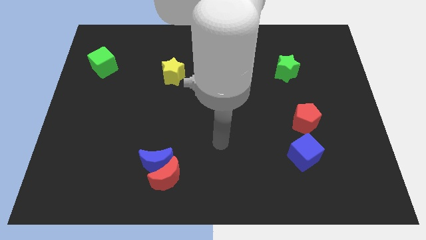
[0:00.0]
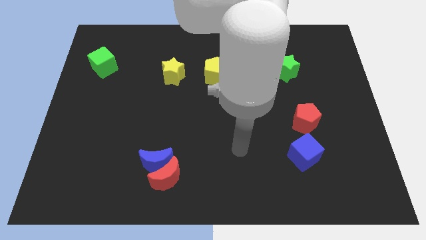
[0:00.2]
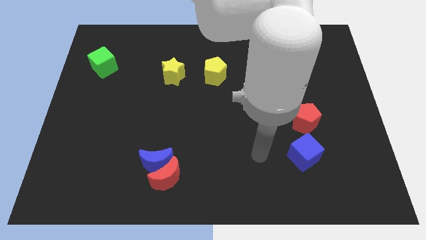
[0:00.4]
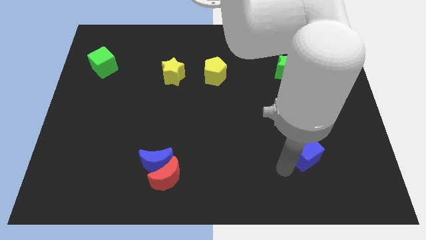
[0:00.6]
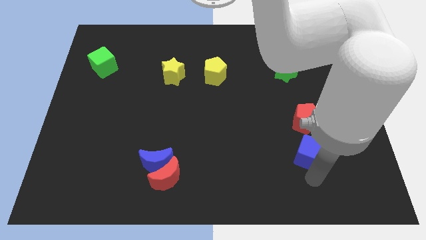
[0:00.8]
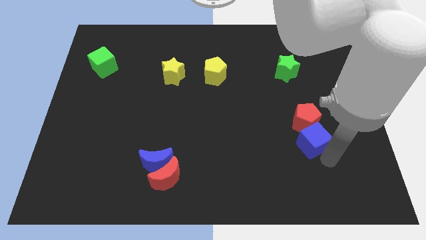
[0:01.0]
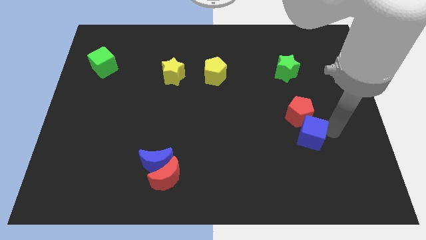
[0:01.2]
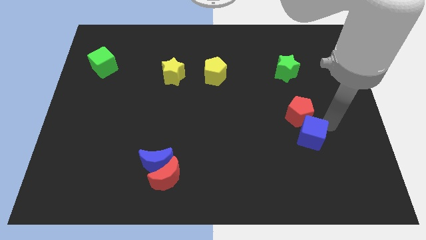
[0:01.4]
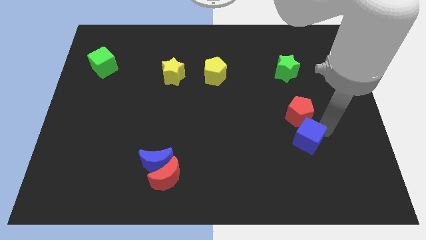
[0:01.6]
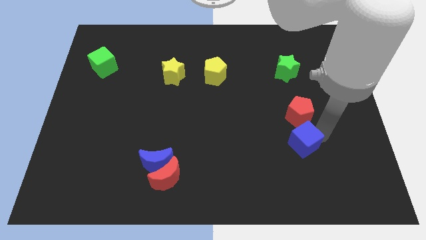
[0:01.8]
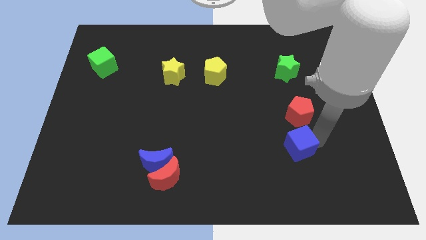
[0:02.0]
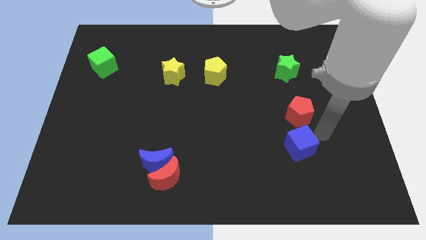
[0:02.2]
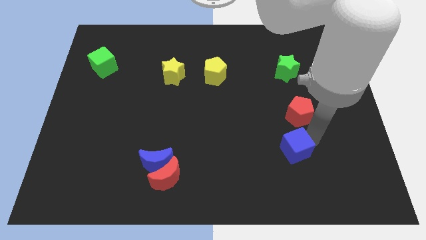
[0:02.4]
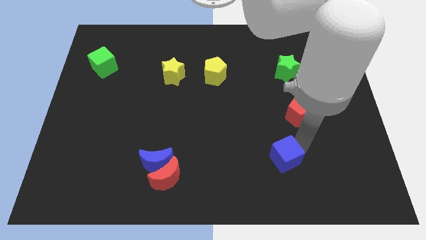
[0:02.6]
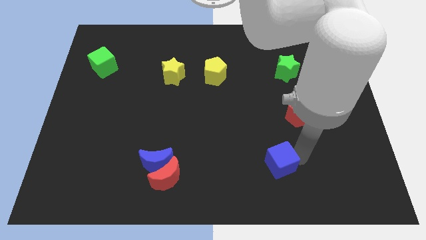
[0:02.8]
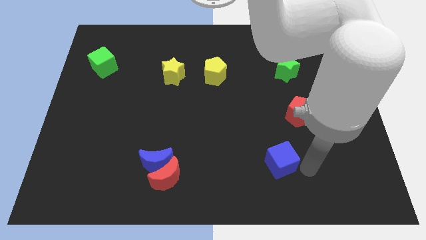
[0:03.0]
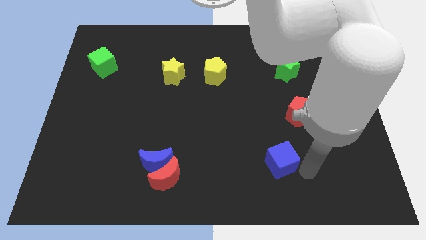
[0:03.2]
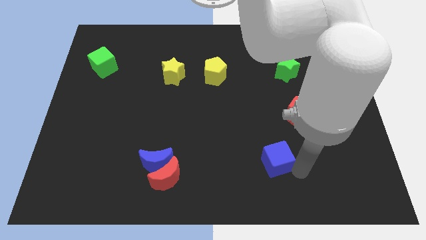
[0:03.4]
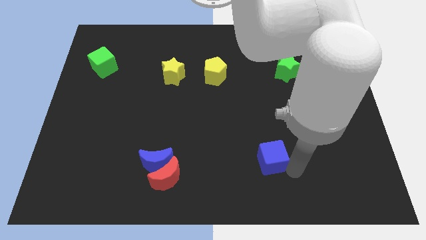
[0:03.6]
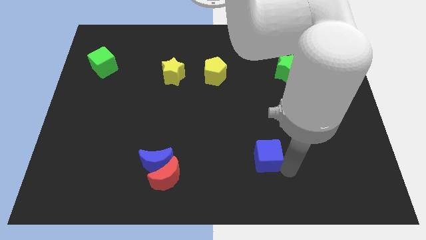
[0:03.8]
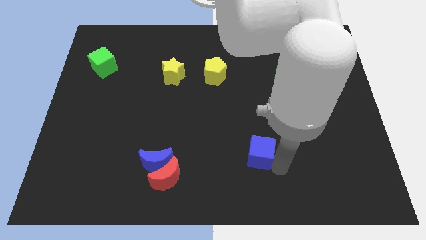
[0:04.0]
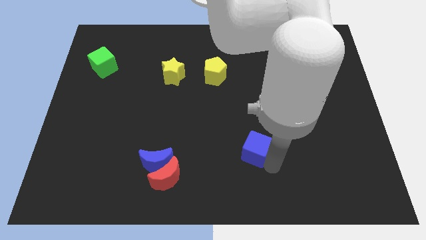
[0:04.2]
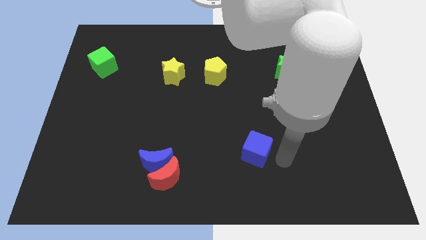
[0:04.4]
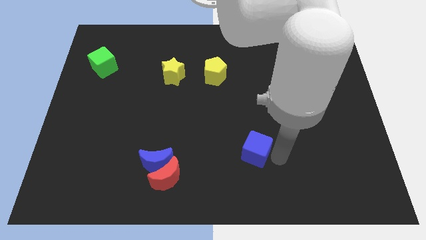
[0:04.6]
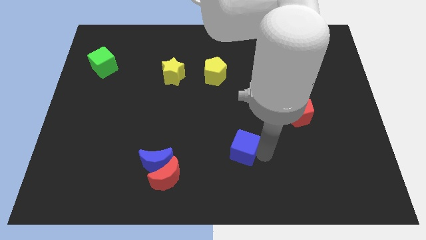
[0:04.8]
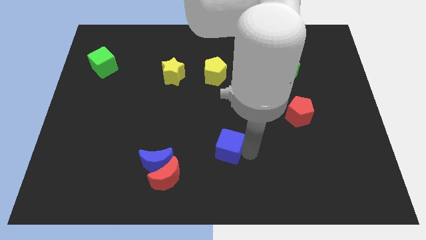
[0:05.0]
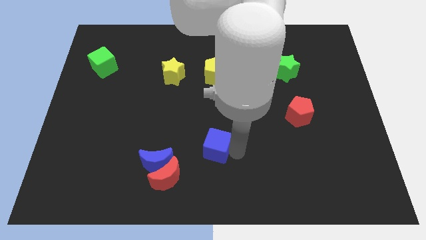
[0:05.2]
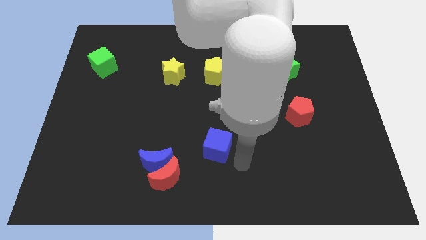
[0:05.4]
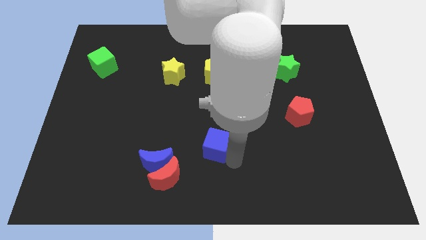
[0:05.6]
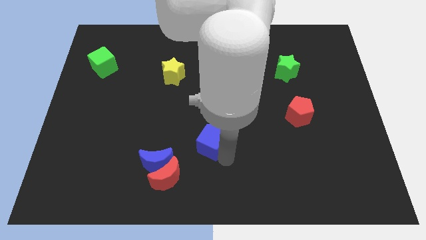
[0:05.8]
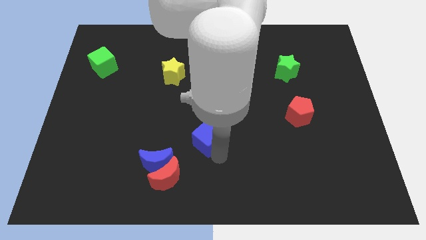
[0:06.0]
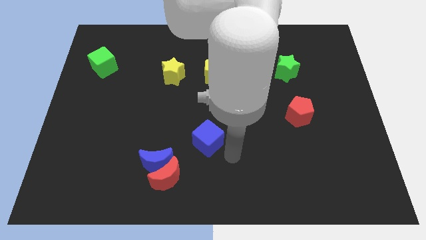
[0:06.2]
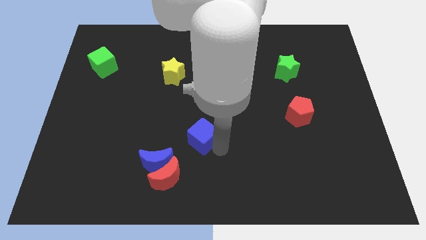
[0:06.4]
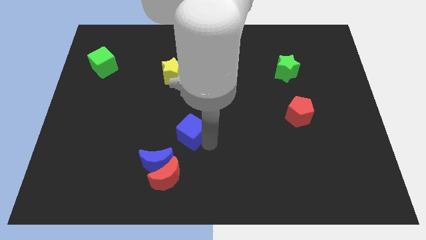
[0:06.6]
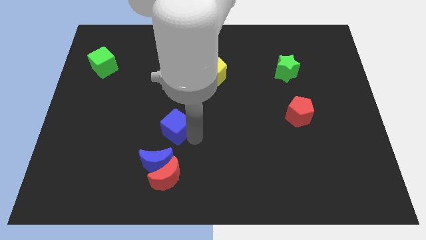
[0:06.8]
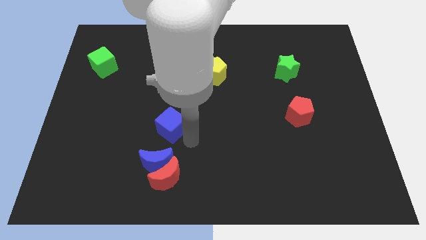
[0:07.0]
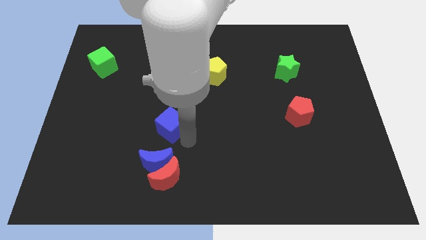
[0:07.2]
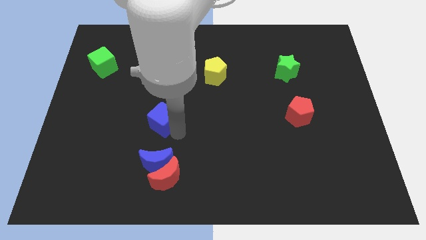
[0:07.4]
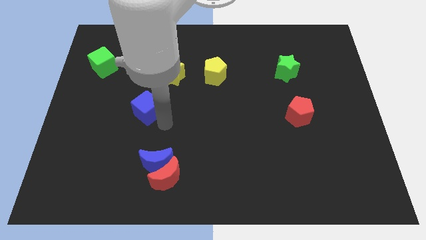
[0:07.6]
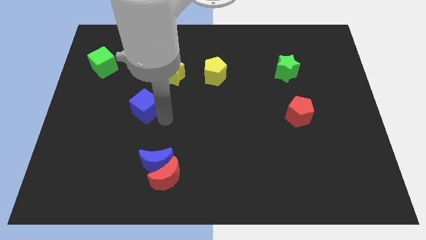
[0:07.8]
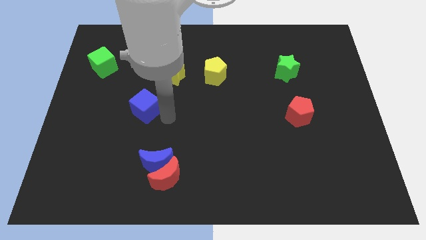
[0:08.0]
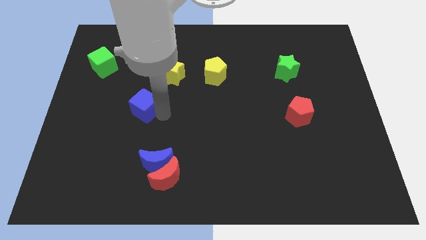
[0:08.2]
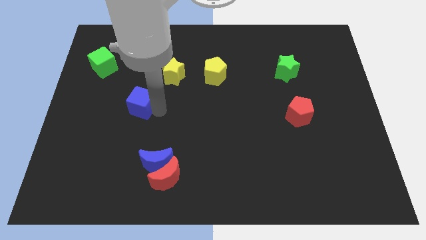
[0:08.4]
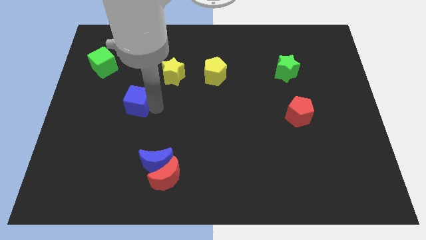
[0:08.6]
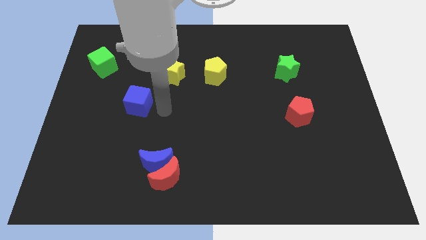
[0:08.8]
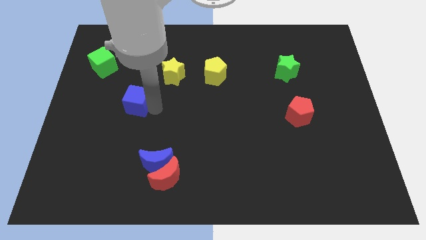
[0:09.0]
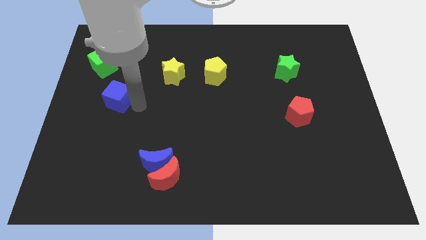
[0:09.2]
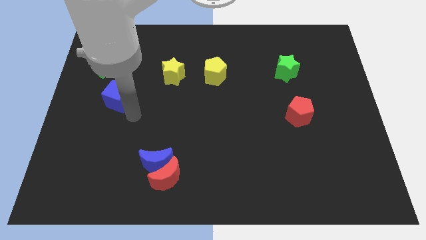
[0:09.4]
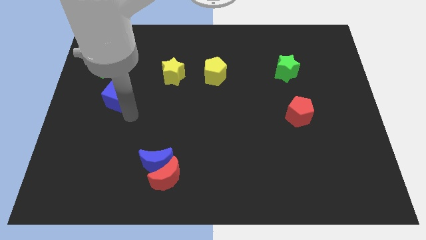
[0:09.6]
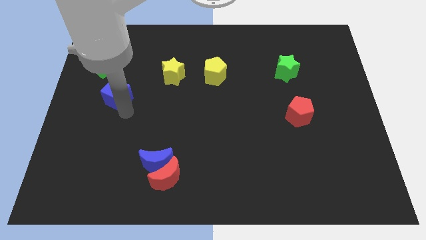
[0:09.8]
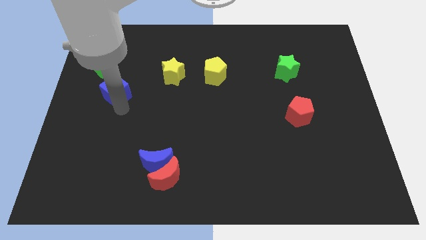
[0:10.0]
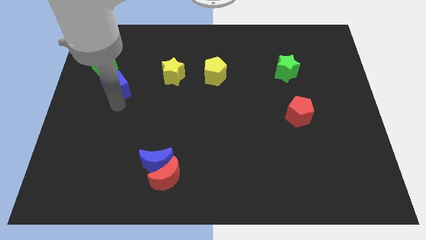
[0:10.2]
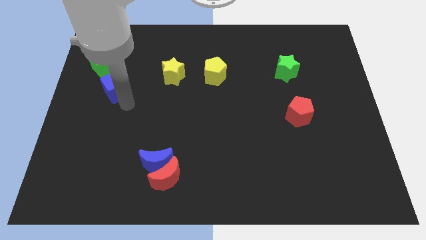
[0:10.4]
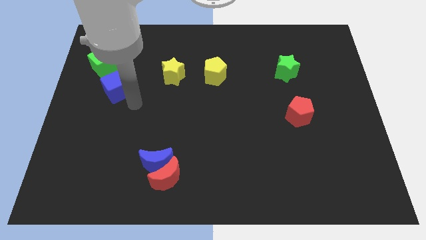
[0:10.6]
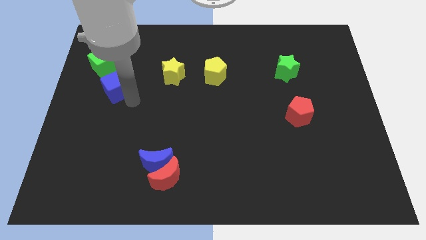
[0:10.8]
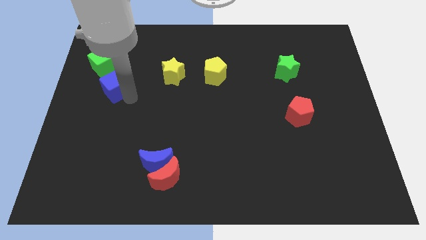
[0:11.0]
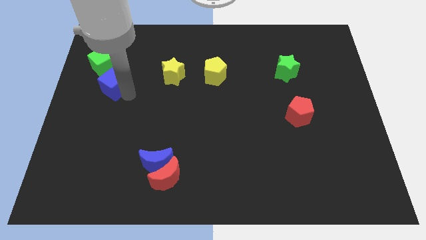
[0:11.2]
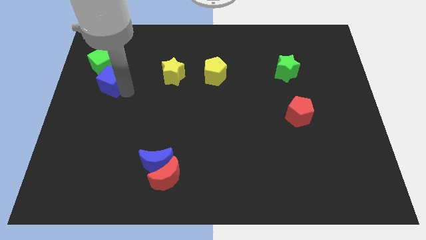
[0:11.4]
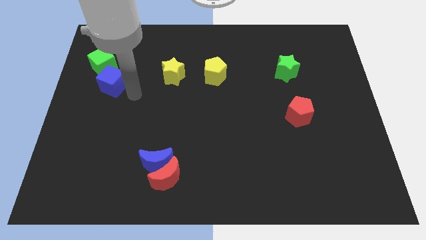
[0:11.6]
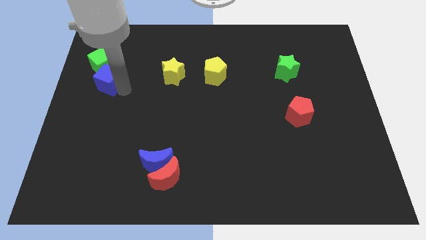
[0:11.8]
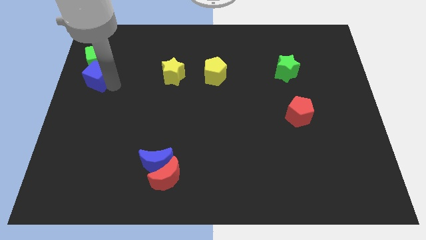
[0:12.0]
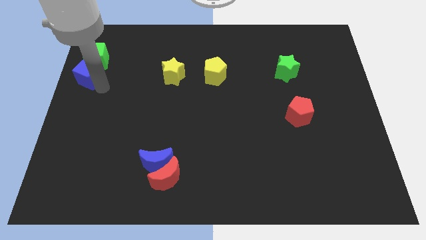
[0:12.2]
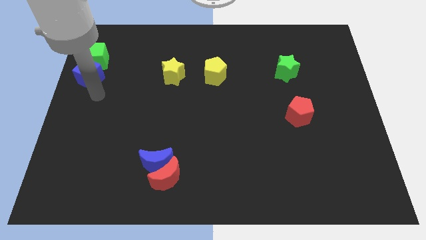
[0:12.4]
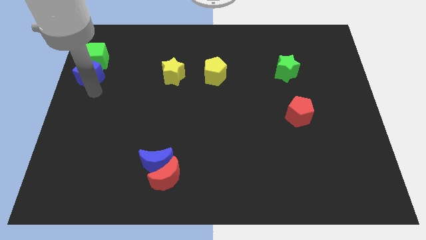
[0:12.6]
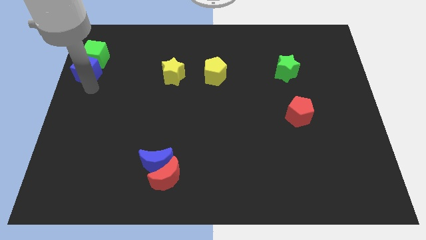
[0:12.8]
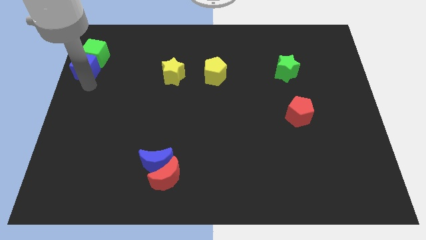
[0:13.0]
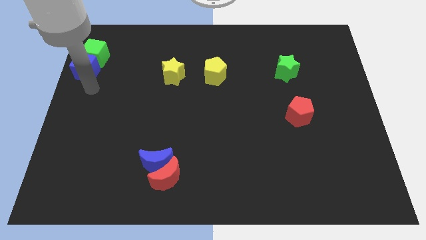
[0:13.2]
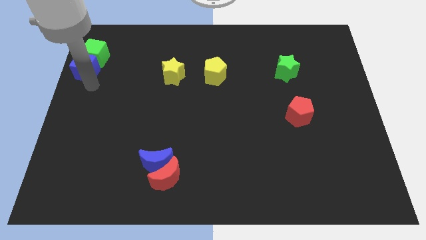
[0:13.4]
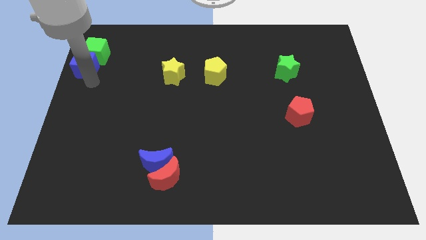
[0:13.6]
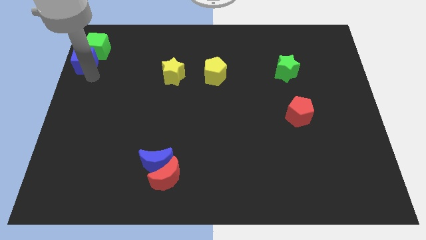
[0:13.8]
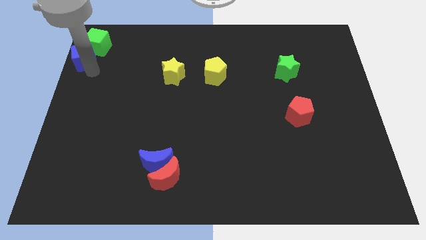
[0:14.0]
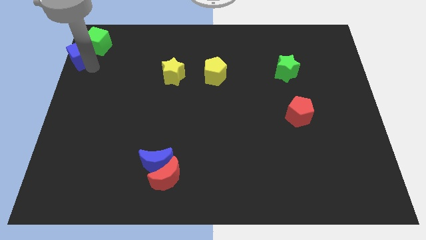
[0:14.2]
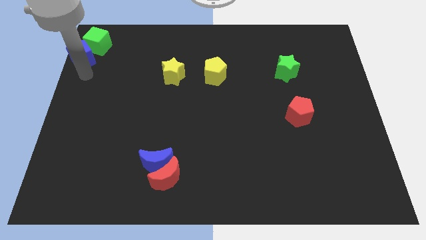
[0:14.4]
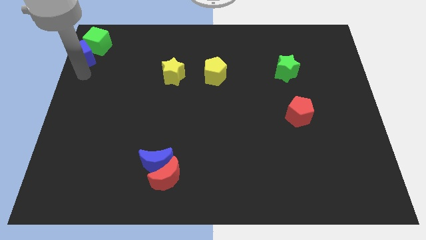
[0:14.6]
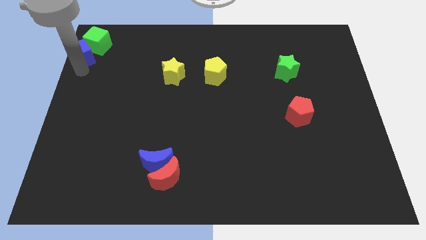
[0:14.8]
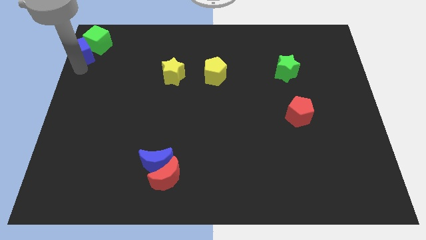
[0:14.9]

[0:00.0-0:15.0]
move the blue cube to the top left of the board
